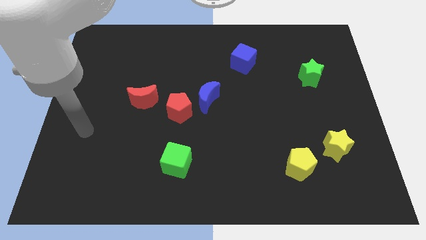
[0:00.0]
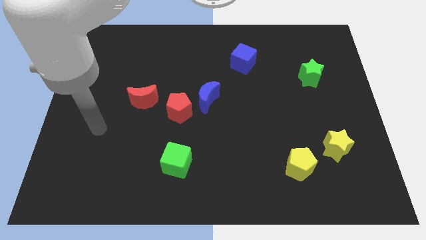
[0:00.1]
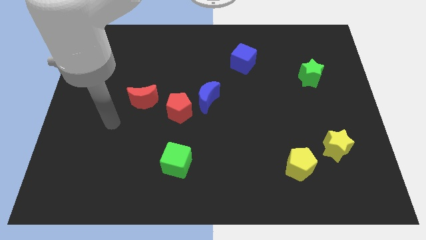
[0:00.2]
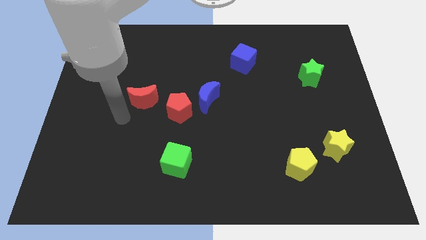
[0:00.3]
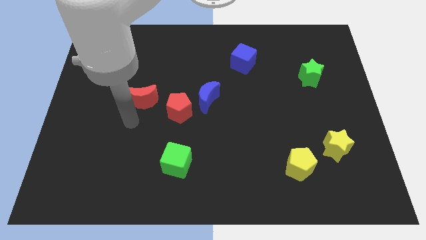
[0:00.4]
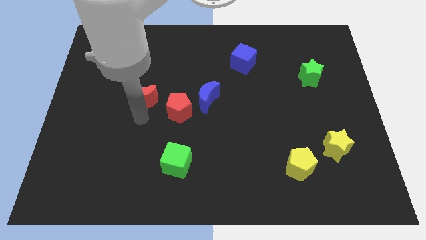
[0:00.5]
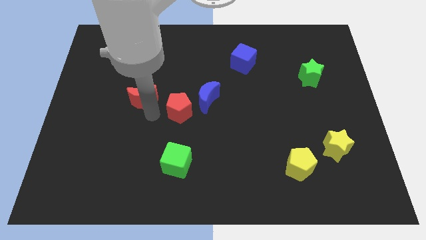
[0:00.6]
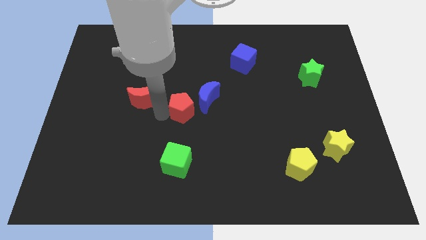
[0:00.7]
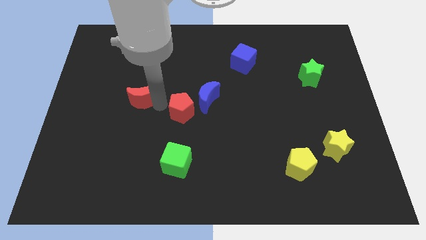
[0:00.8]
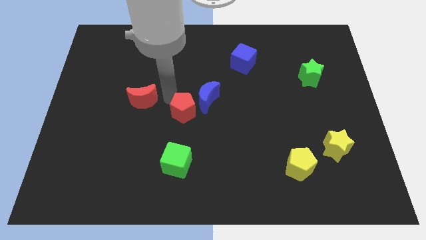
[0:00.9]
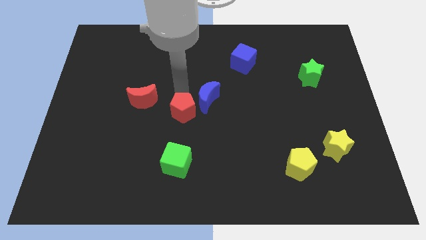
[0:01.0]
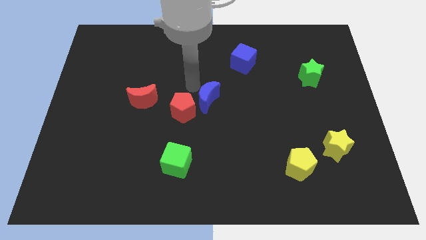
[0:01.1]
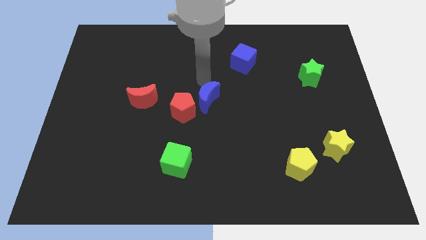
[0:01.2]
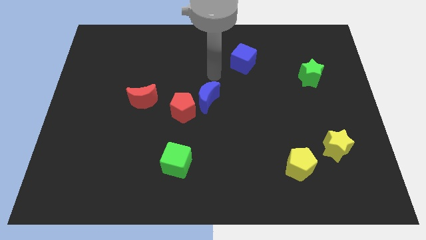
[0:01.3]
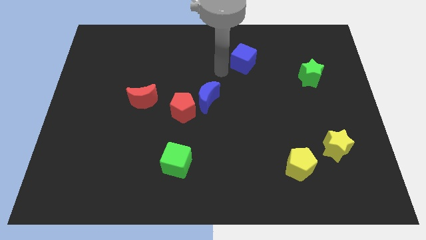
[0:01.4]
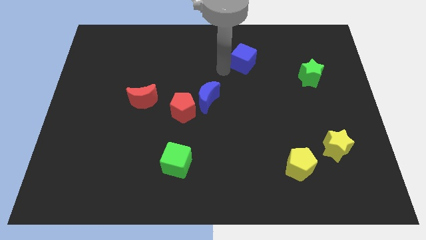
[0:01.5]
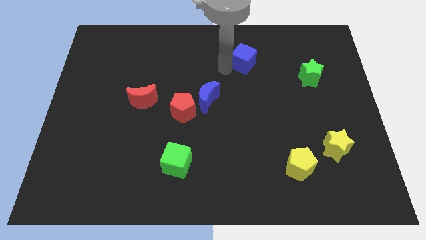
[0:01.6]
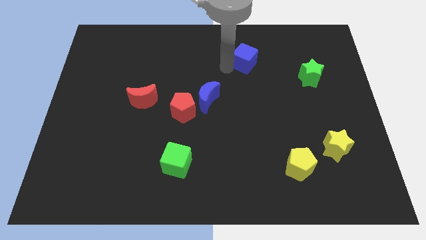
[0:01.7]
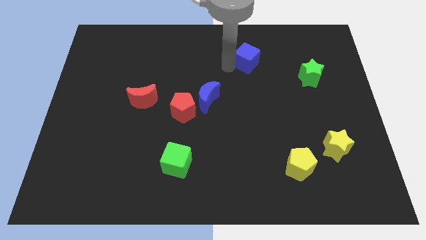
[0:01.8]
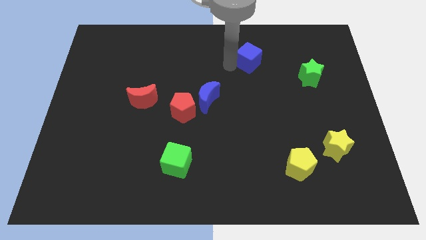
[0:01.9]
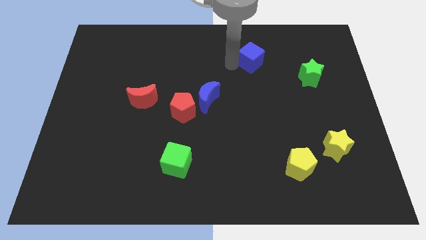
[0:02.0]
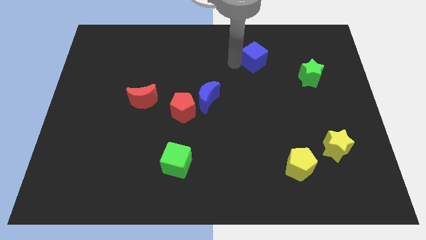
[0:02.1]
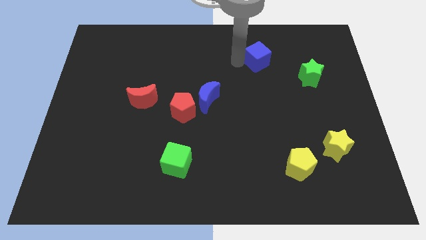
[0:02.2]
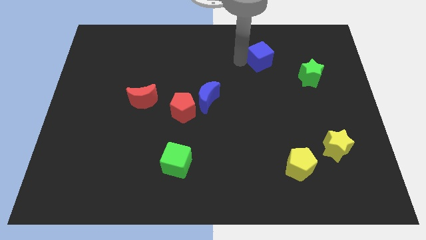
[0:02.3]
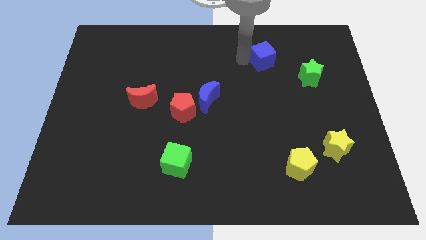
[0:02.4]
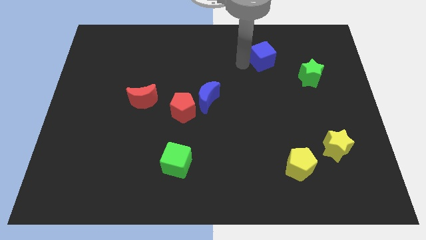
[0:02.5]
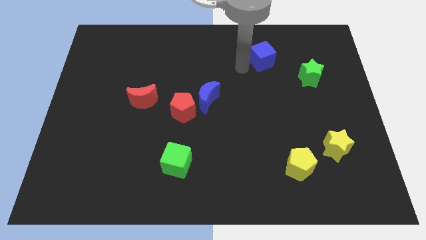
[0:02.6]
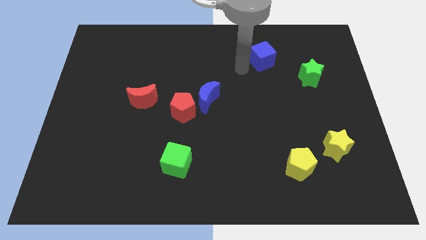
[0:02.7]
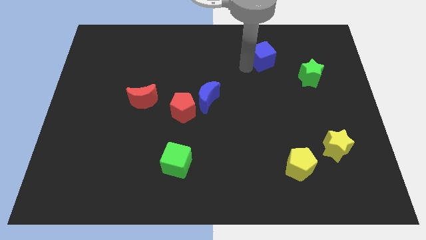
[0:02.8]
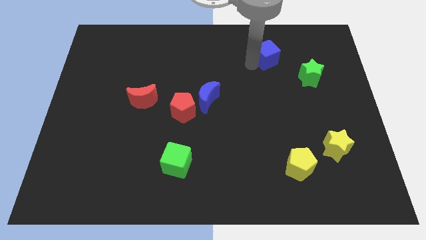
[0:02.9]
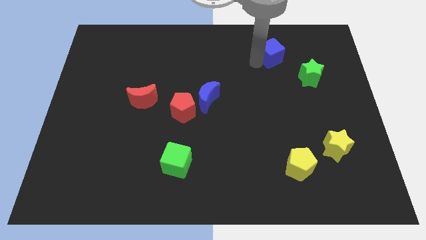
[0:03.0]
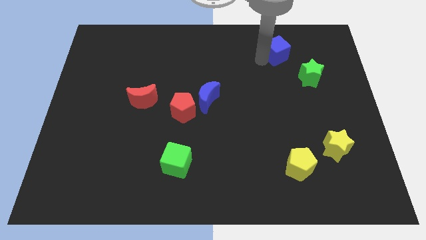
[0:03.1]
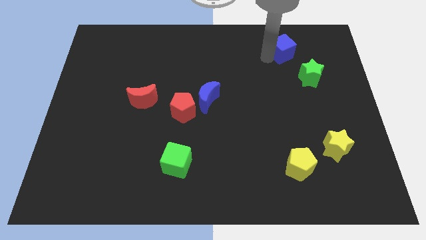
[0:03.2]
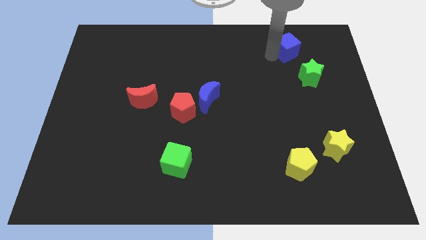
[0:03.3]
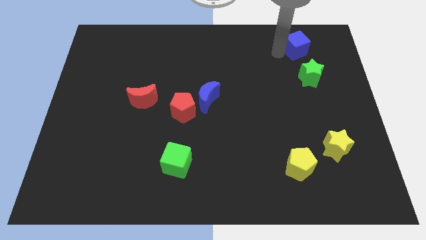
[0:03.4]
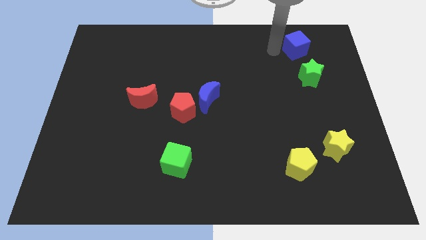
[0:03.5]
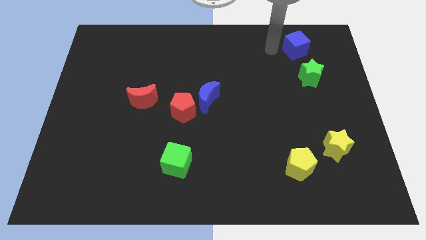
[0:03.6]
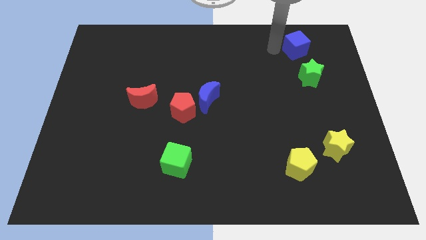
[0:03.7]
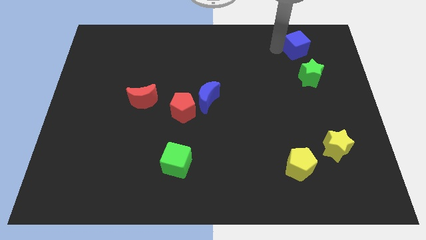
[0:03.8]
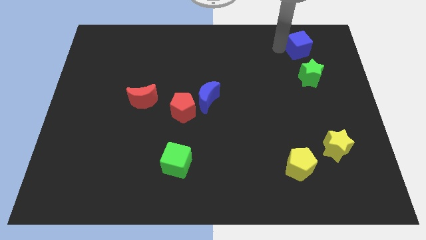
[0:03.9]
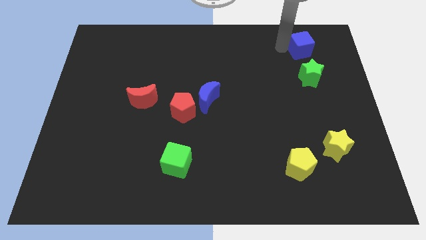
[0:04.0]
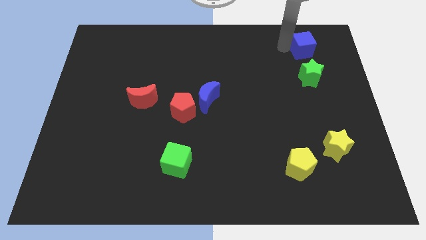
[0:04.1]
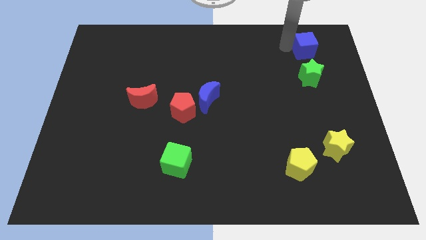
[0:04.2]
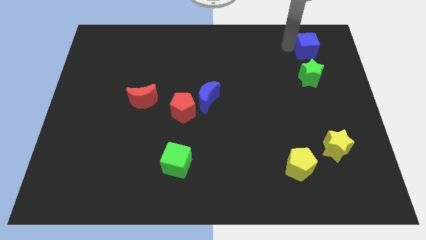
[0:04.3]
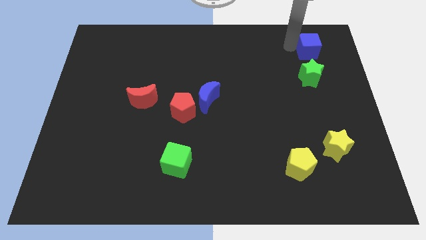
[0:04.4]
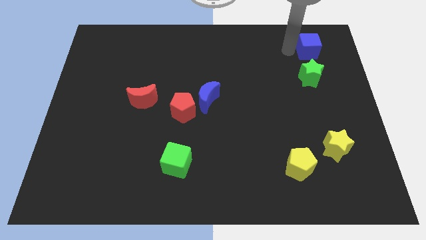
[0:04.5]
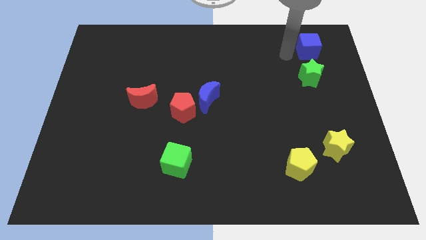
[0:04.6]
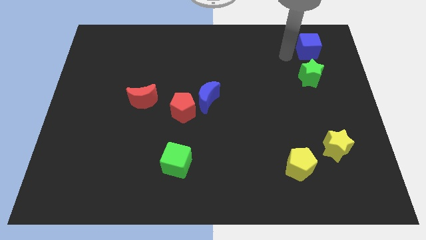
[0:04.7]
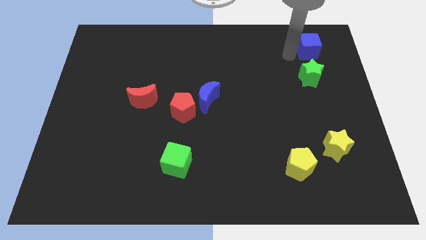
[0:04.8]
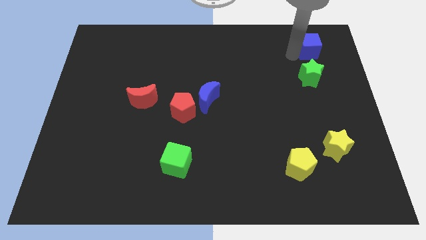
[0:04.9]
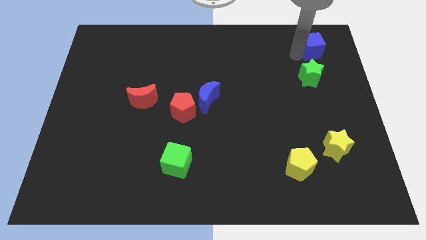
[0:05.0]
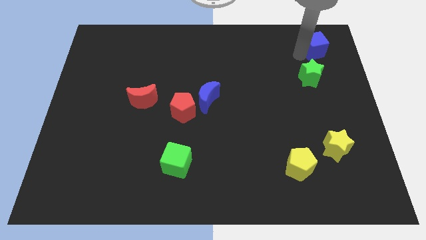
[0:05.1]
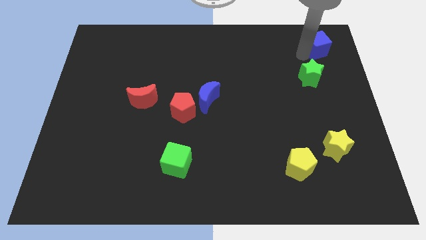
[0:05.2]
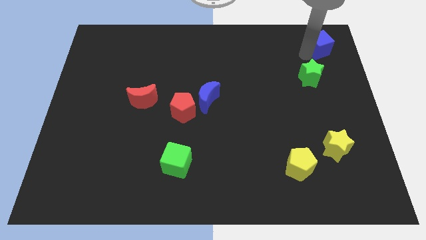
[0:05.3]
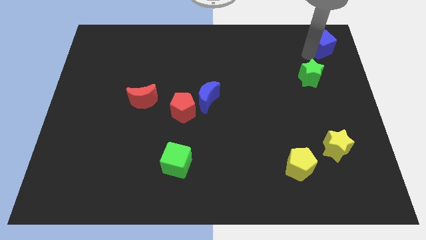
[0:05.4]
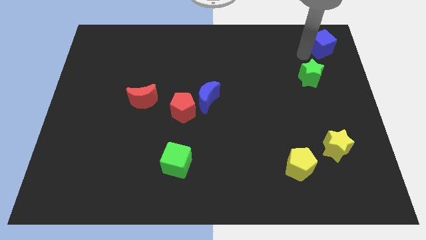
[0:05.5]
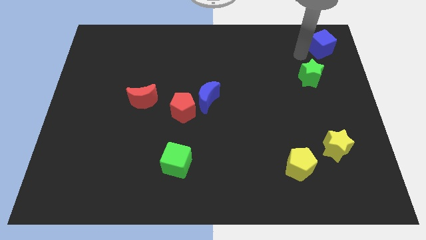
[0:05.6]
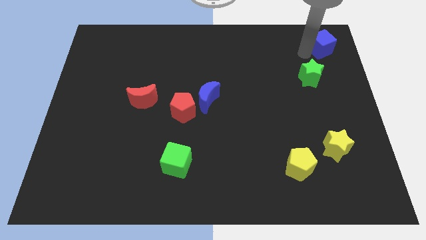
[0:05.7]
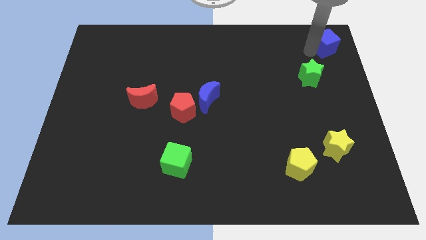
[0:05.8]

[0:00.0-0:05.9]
slide the blue cube to the top right
